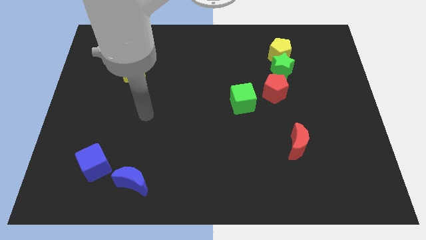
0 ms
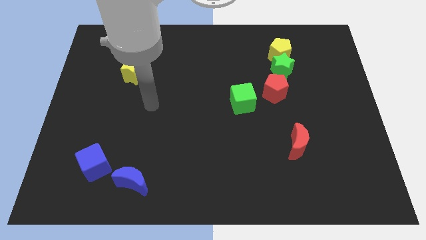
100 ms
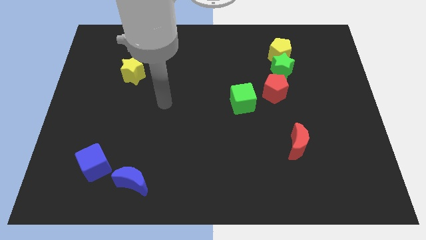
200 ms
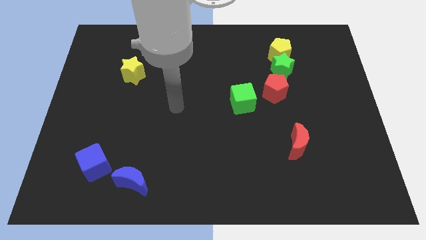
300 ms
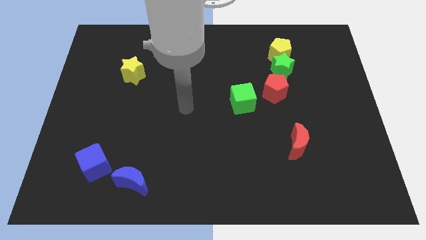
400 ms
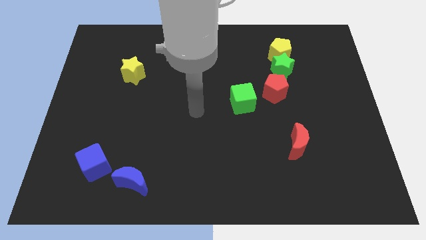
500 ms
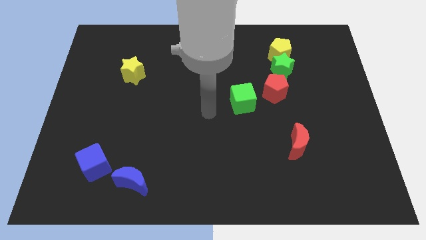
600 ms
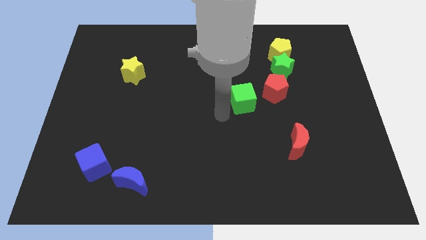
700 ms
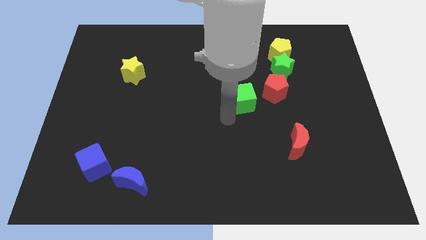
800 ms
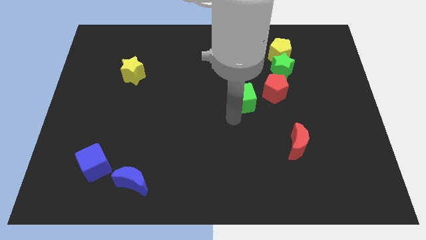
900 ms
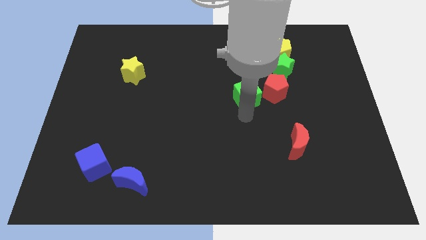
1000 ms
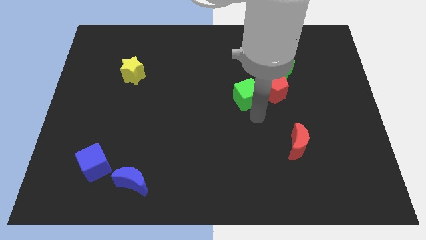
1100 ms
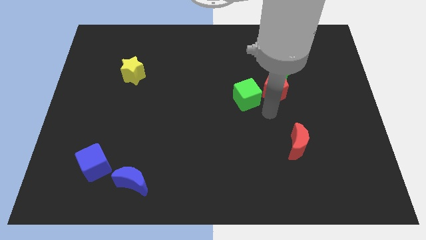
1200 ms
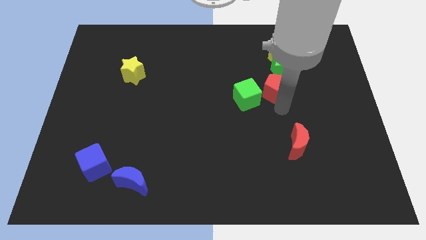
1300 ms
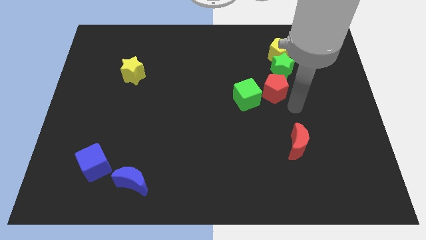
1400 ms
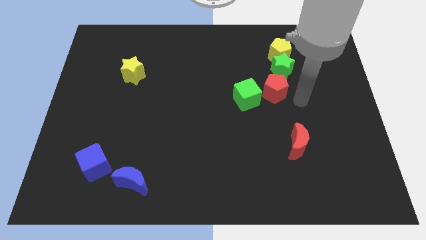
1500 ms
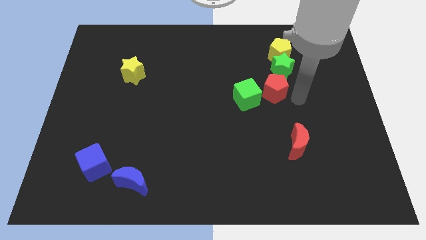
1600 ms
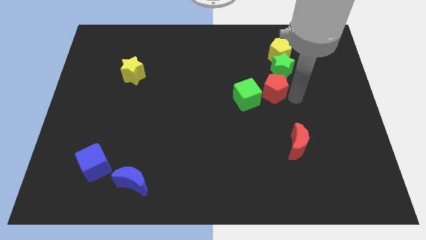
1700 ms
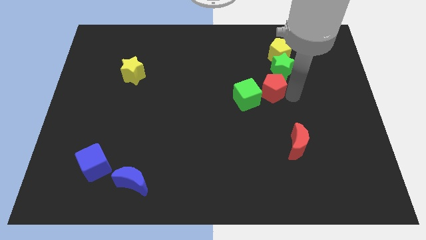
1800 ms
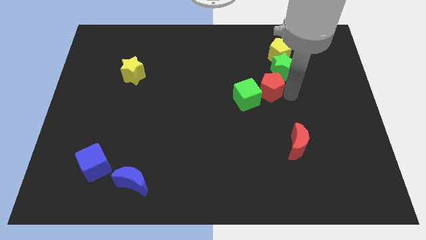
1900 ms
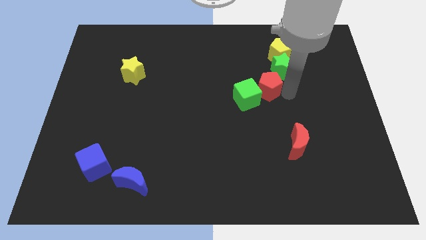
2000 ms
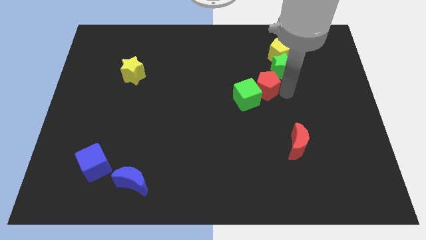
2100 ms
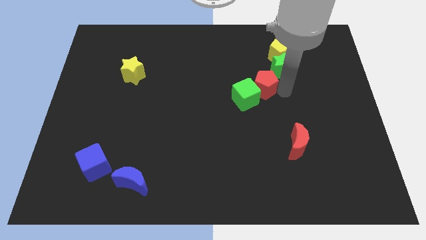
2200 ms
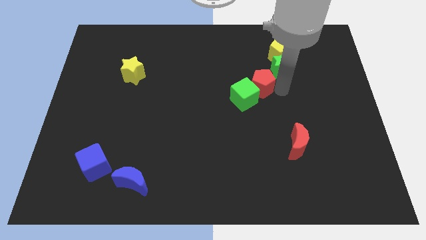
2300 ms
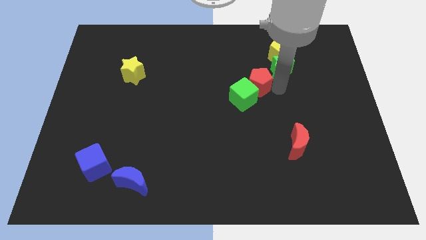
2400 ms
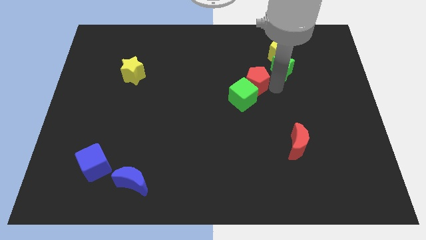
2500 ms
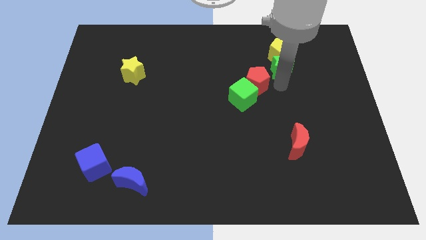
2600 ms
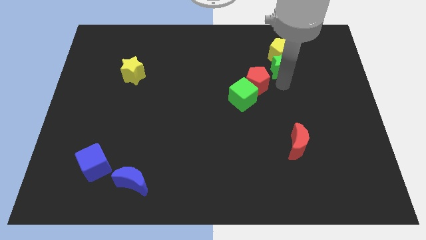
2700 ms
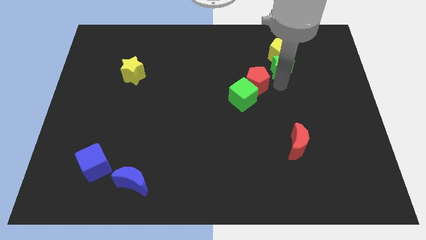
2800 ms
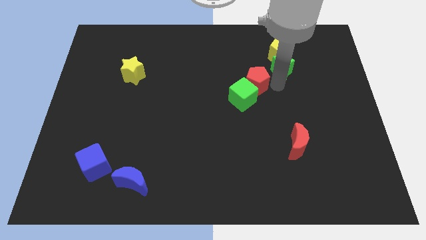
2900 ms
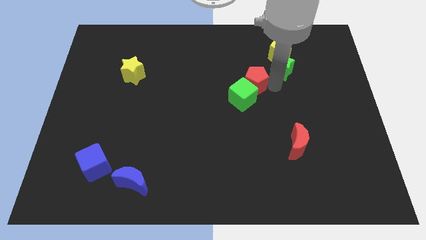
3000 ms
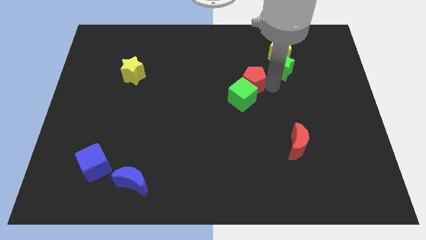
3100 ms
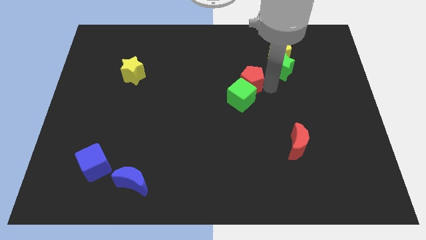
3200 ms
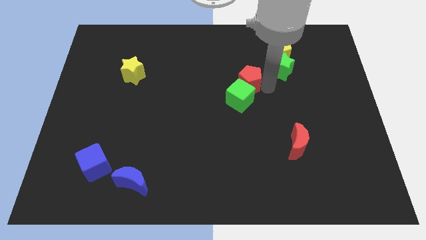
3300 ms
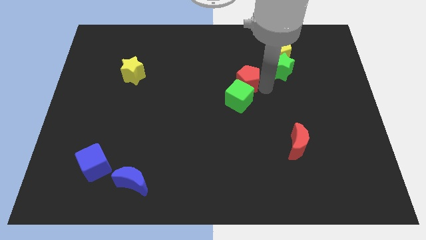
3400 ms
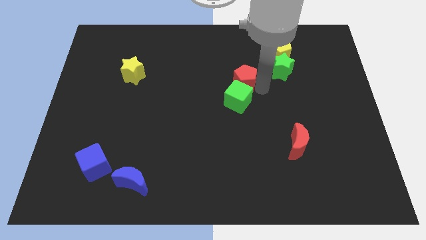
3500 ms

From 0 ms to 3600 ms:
slide the red pentagon somewhat left

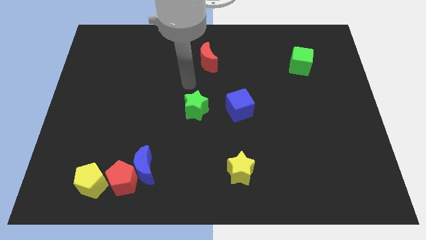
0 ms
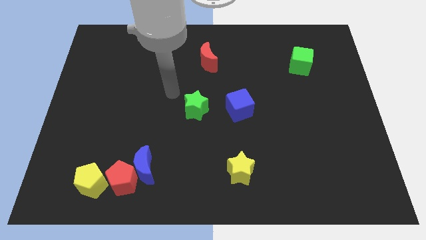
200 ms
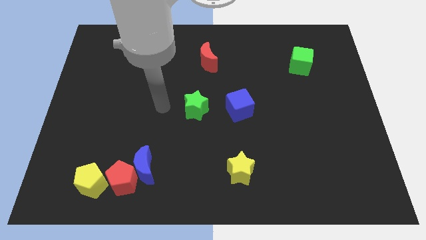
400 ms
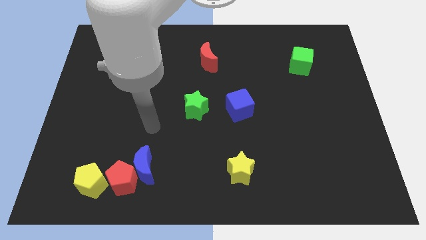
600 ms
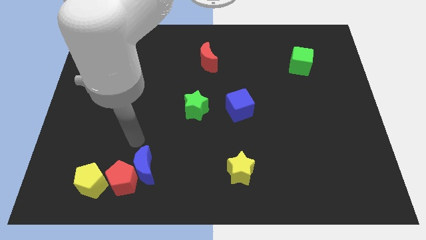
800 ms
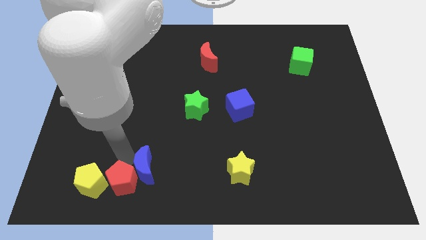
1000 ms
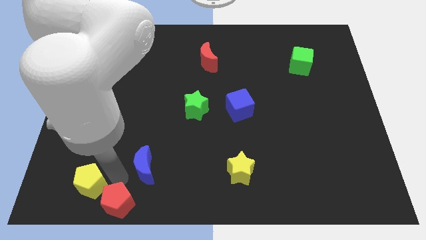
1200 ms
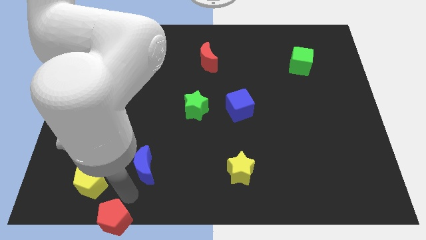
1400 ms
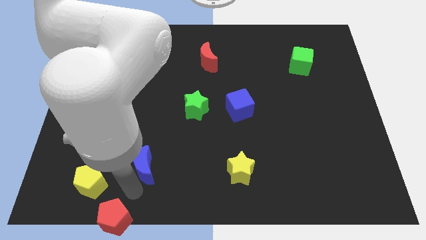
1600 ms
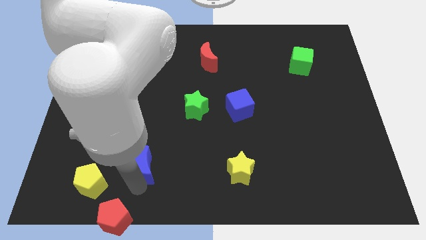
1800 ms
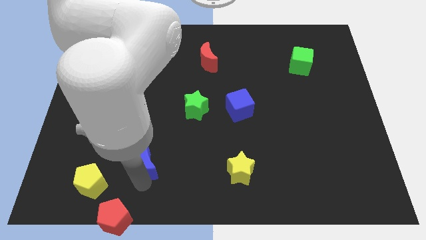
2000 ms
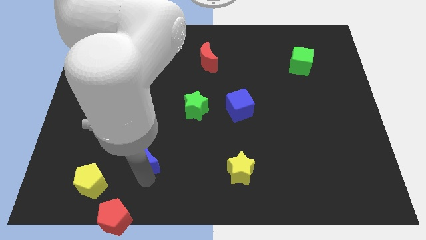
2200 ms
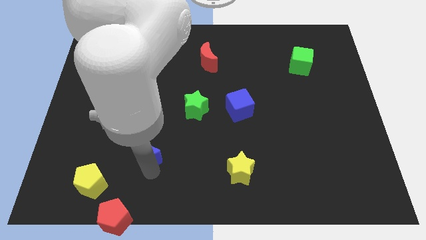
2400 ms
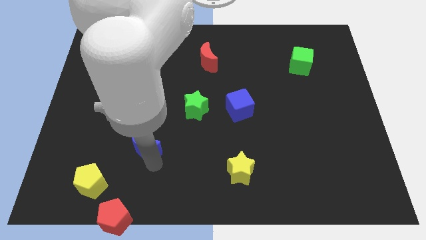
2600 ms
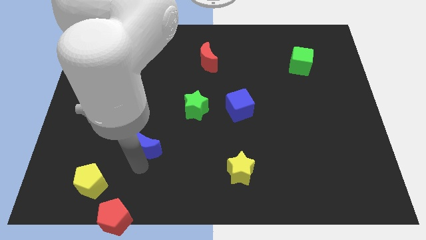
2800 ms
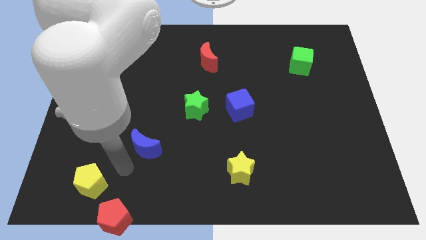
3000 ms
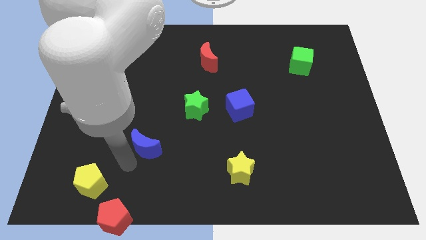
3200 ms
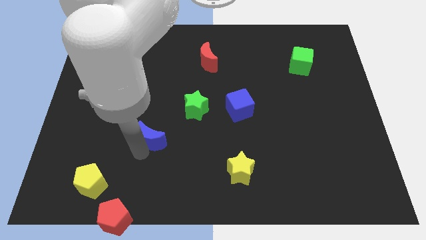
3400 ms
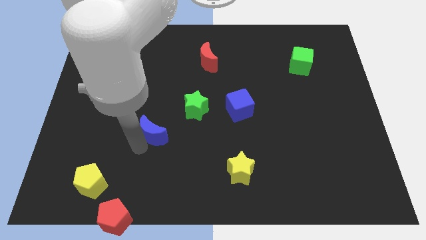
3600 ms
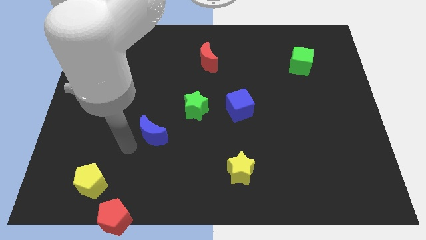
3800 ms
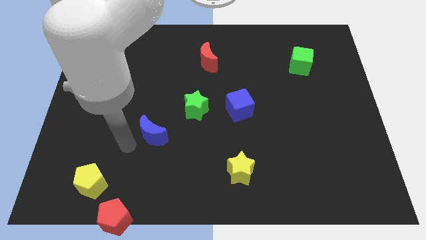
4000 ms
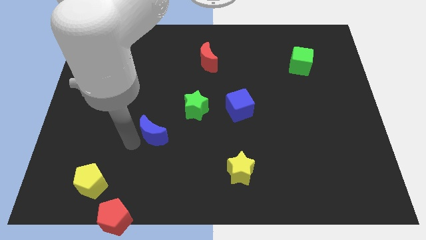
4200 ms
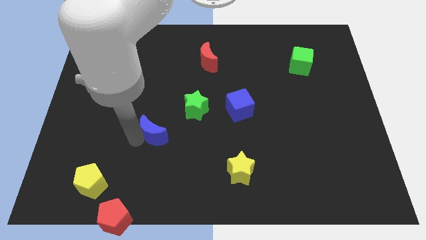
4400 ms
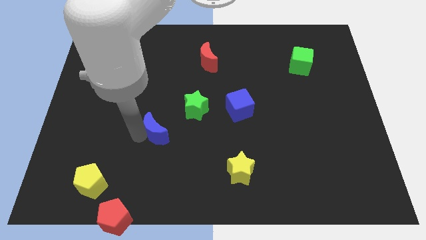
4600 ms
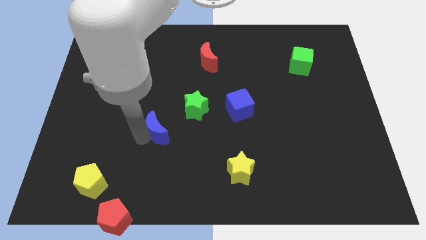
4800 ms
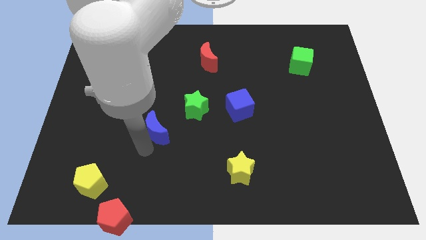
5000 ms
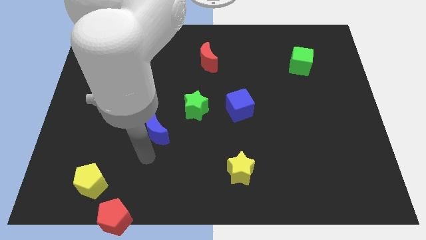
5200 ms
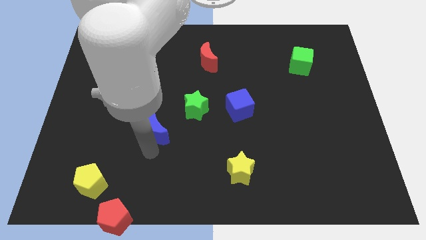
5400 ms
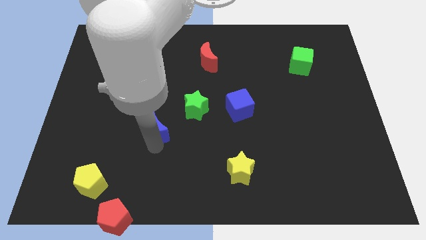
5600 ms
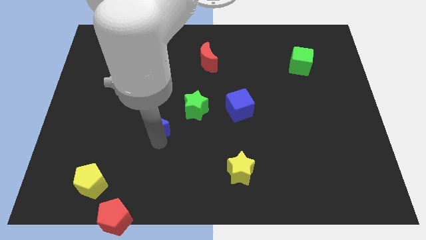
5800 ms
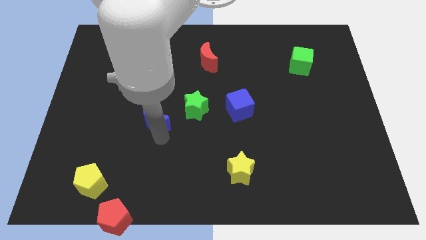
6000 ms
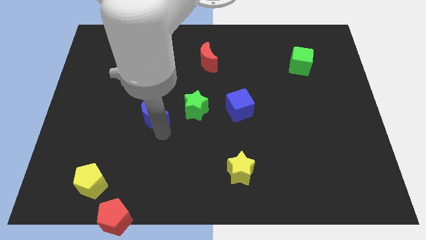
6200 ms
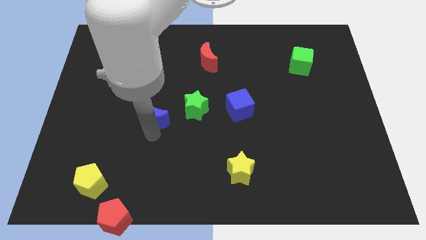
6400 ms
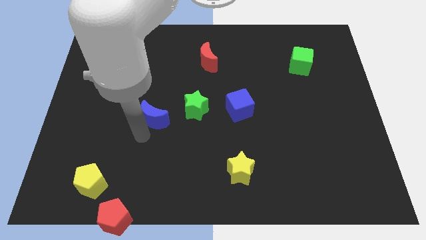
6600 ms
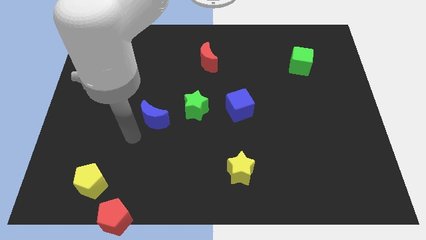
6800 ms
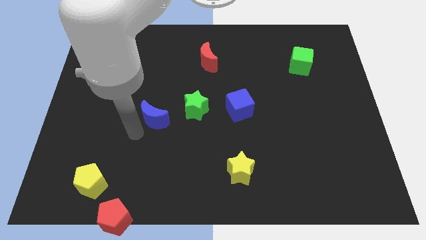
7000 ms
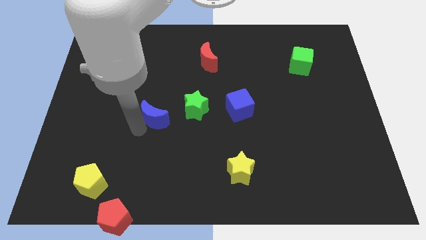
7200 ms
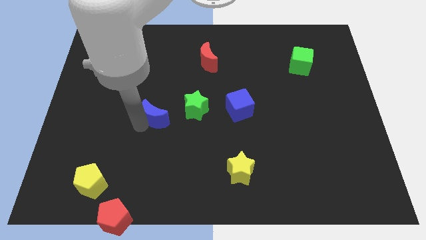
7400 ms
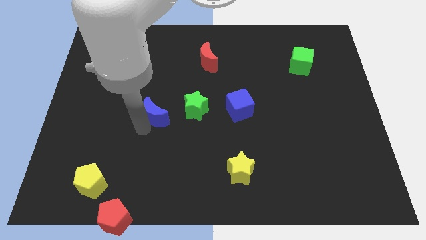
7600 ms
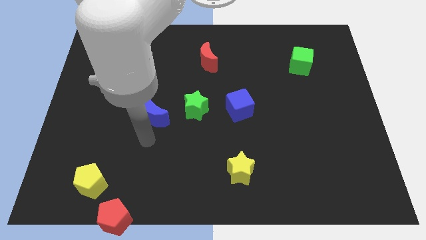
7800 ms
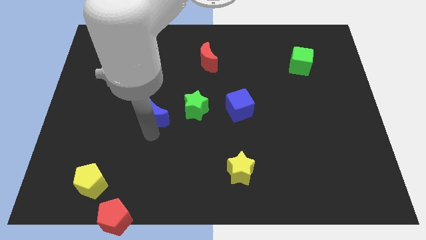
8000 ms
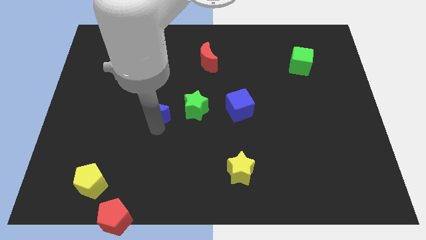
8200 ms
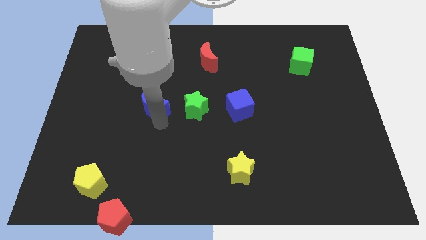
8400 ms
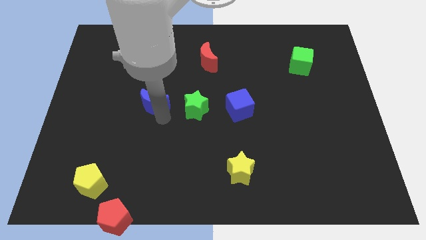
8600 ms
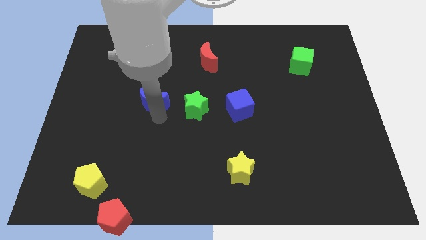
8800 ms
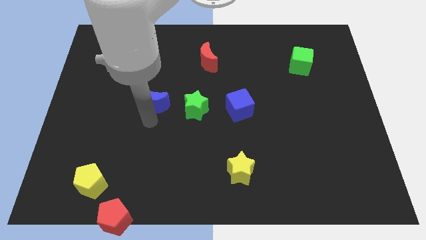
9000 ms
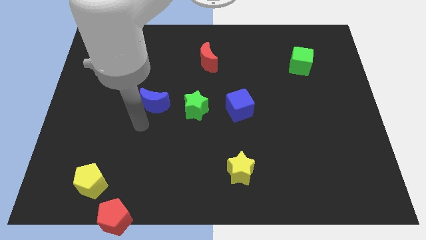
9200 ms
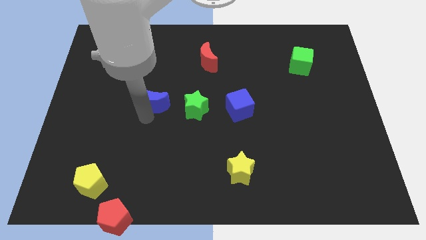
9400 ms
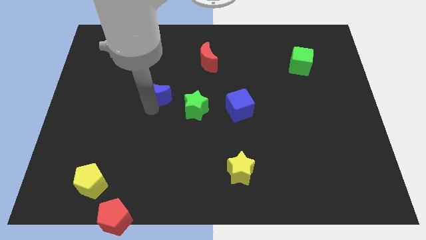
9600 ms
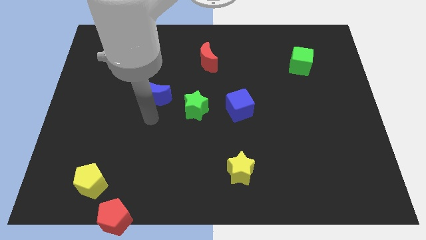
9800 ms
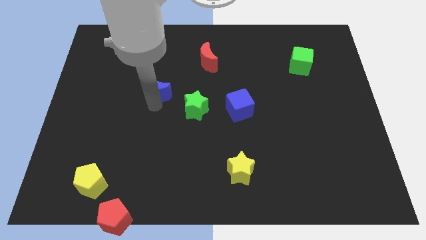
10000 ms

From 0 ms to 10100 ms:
push the blue moon upwards
